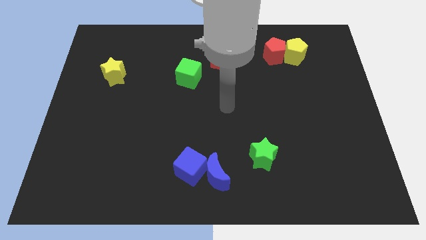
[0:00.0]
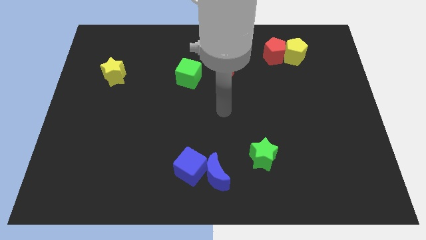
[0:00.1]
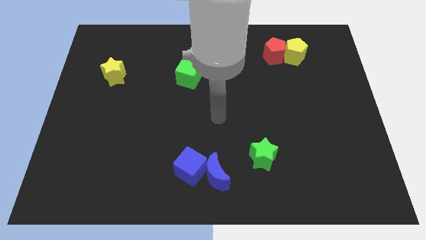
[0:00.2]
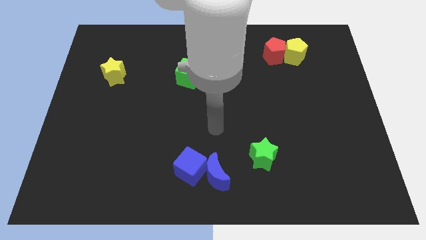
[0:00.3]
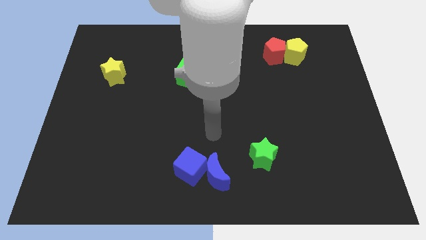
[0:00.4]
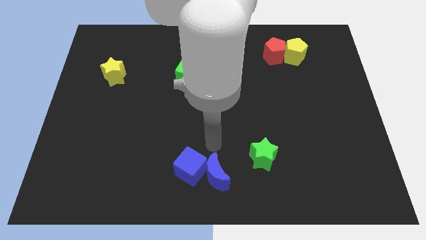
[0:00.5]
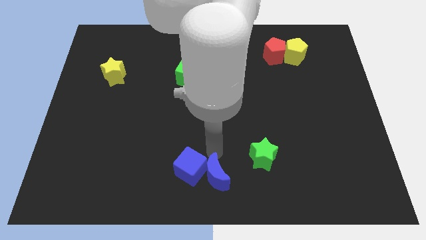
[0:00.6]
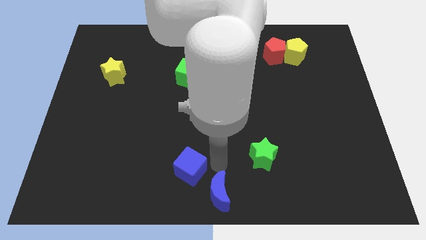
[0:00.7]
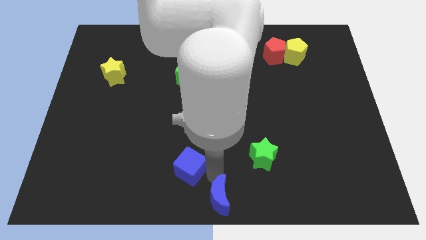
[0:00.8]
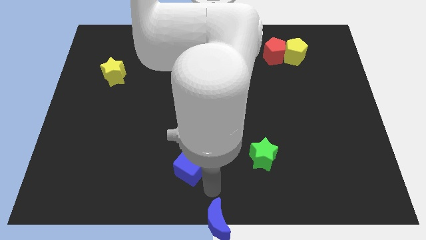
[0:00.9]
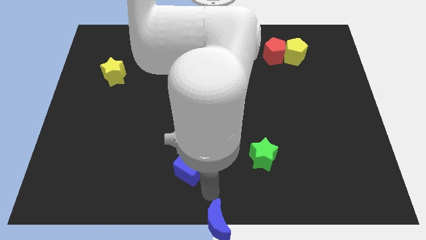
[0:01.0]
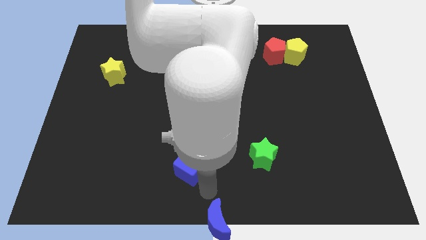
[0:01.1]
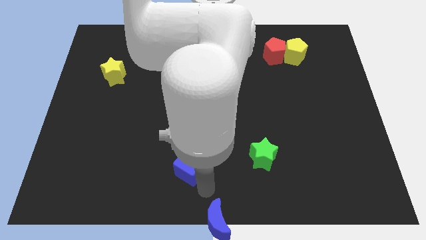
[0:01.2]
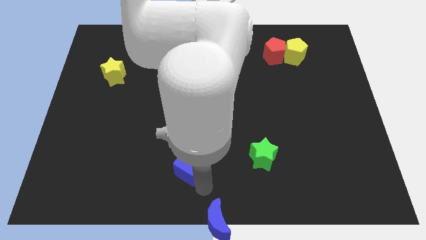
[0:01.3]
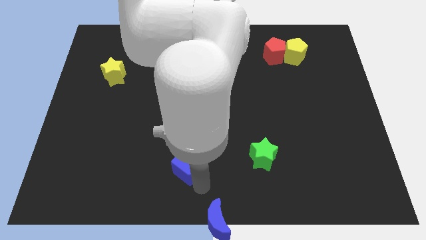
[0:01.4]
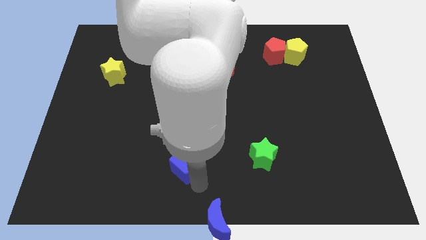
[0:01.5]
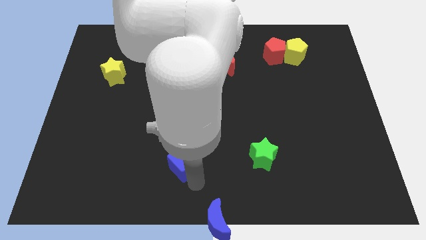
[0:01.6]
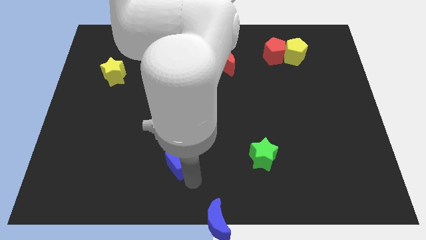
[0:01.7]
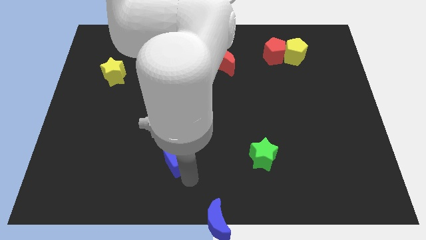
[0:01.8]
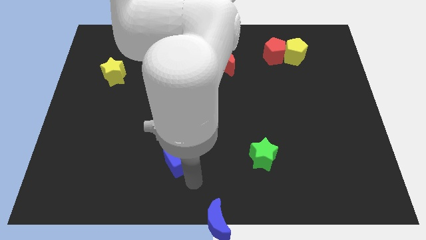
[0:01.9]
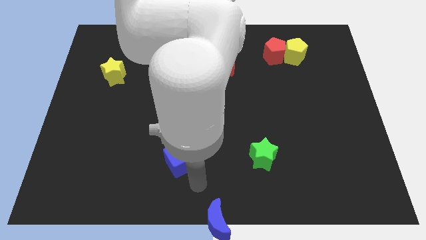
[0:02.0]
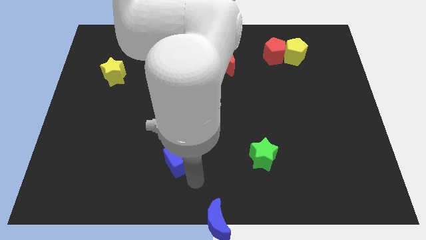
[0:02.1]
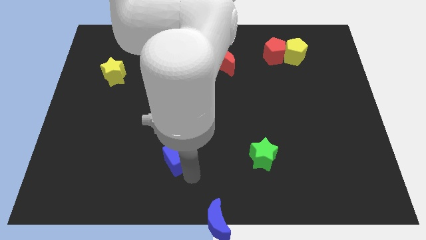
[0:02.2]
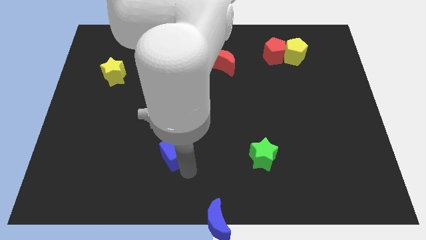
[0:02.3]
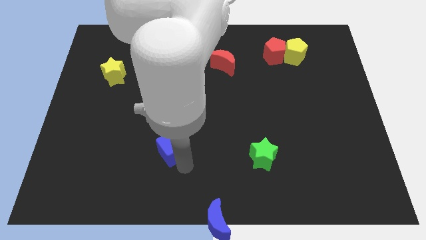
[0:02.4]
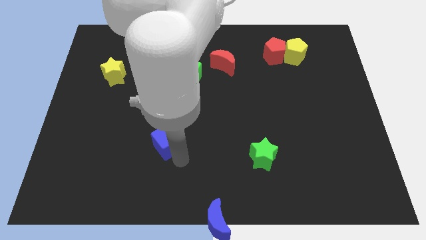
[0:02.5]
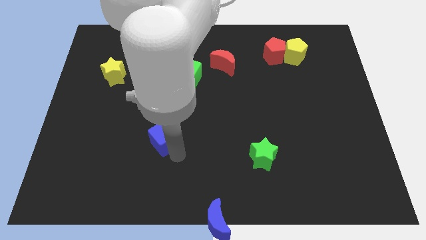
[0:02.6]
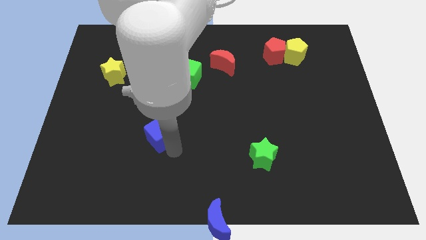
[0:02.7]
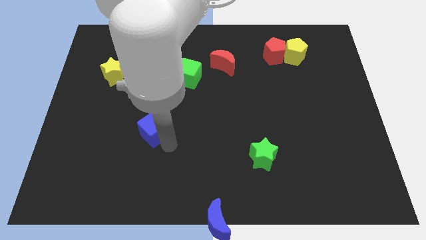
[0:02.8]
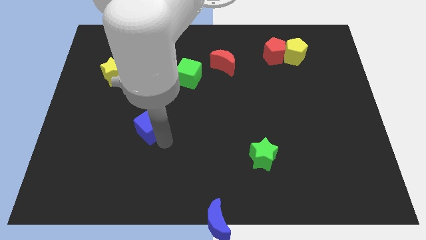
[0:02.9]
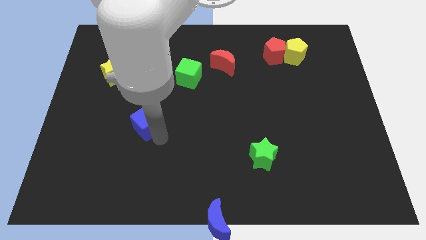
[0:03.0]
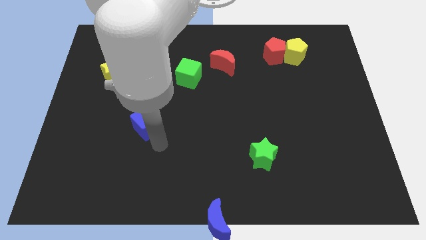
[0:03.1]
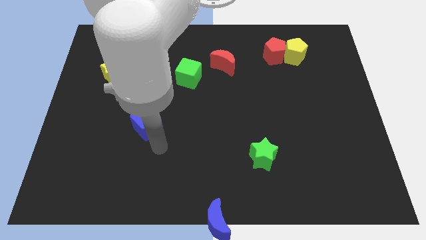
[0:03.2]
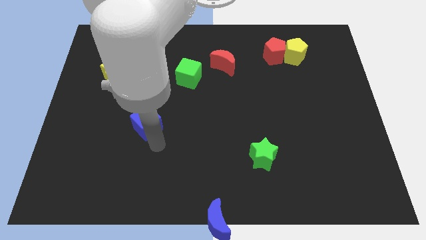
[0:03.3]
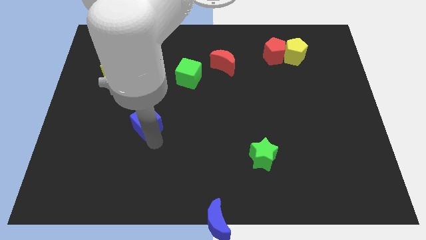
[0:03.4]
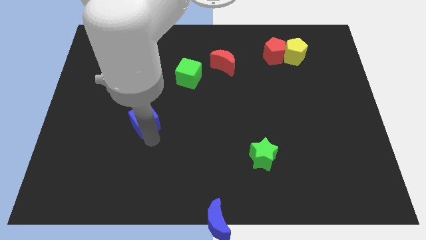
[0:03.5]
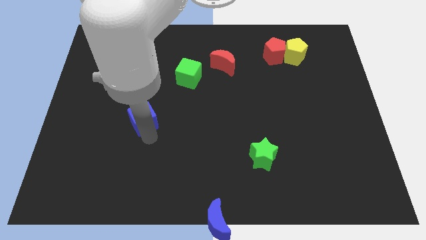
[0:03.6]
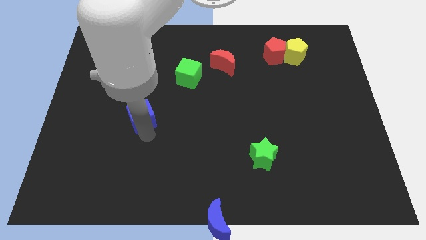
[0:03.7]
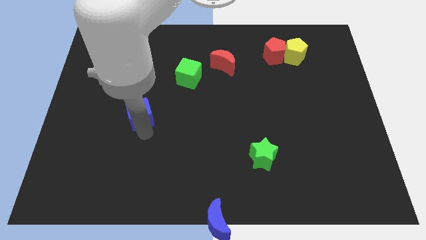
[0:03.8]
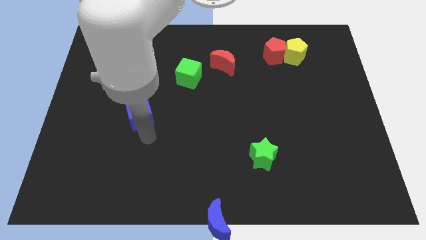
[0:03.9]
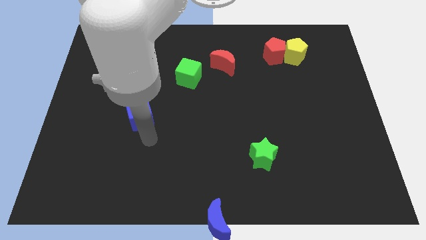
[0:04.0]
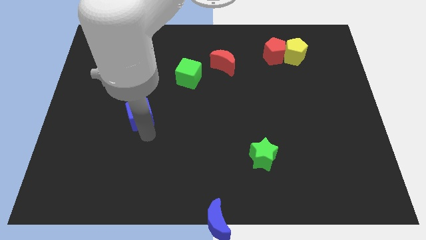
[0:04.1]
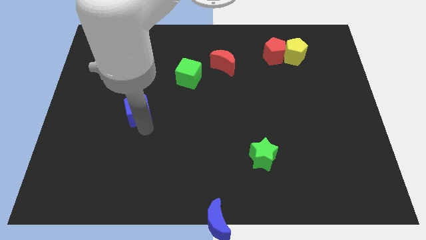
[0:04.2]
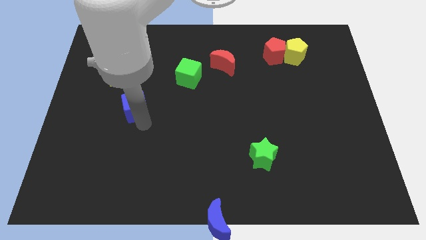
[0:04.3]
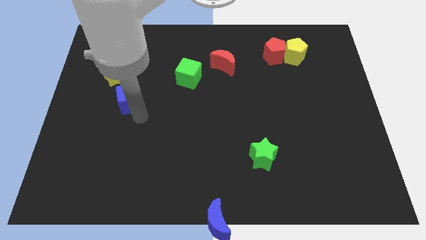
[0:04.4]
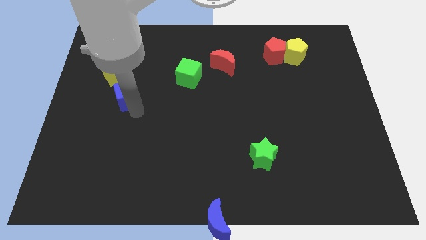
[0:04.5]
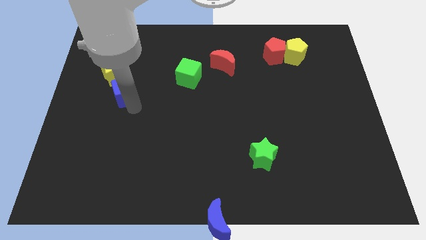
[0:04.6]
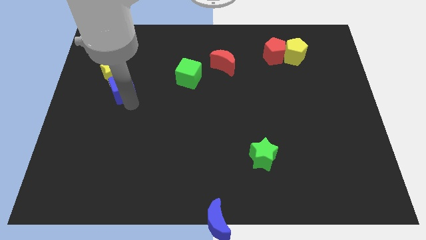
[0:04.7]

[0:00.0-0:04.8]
move the blue cube close to the yellow star

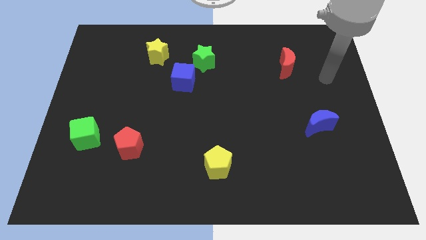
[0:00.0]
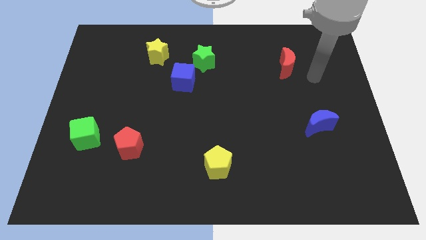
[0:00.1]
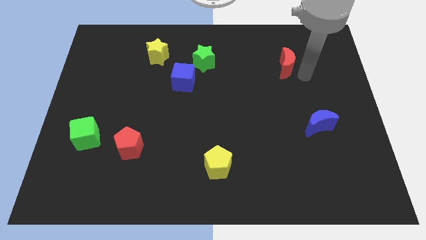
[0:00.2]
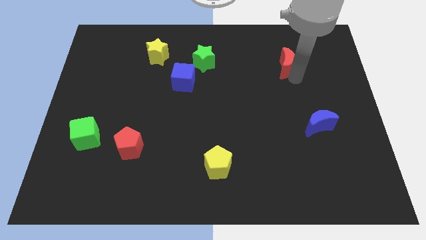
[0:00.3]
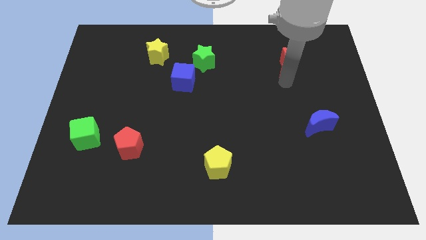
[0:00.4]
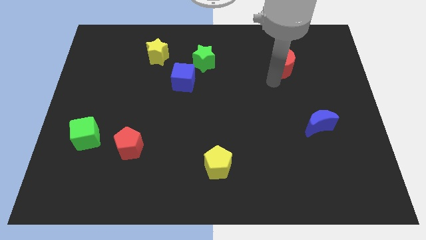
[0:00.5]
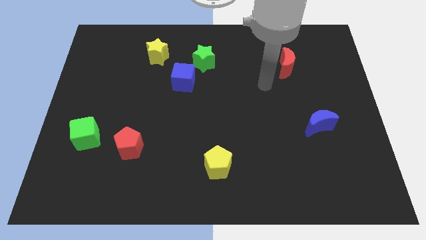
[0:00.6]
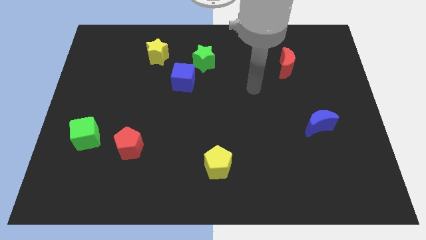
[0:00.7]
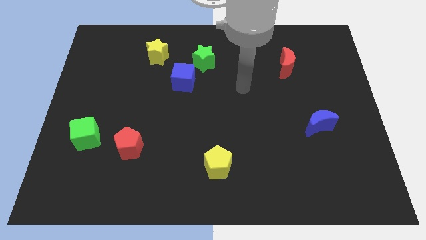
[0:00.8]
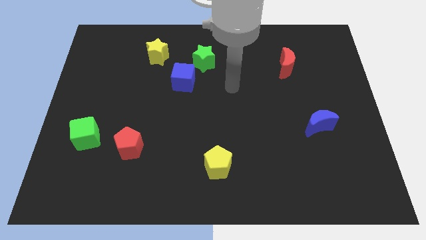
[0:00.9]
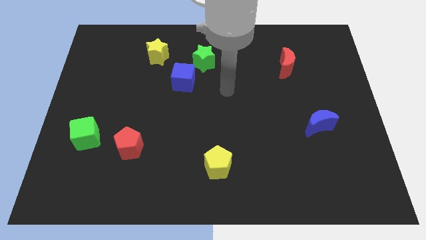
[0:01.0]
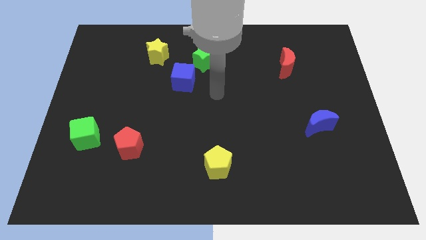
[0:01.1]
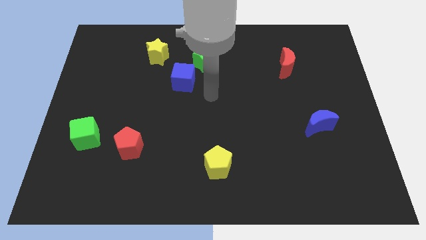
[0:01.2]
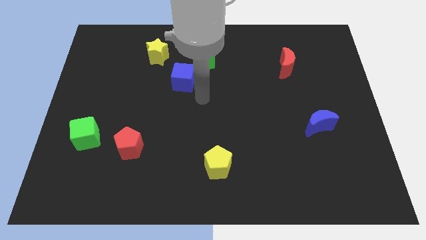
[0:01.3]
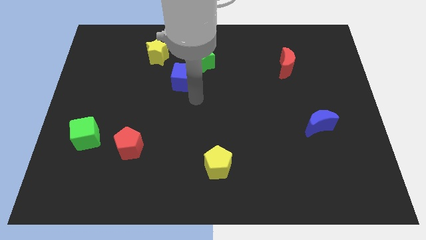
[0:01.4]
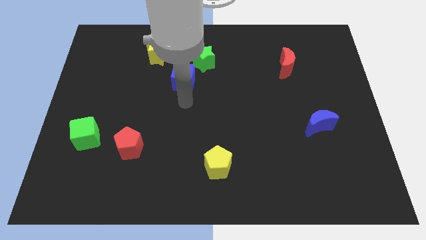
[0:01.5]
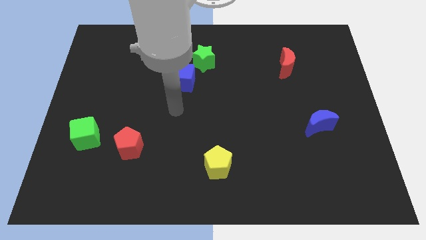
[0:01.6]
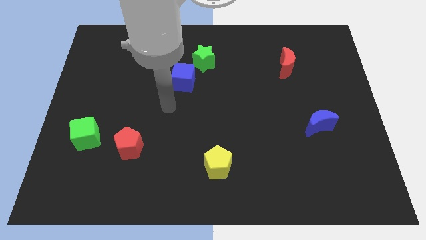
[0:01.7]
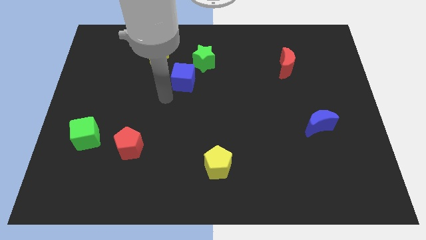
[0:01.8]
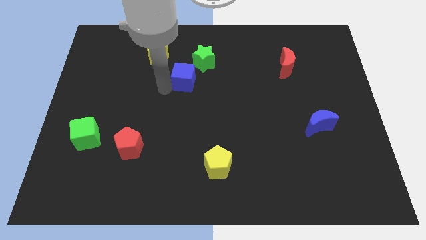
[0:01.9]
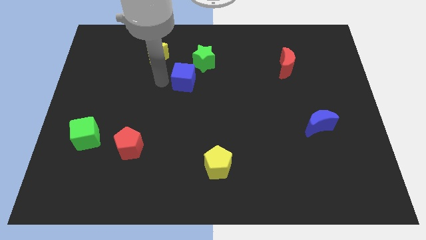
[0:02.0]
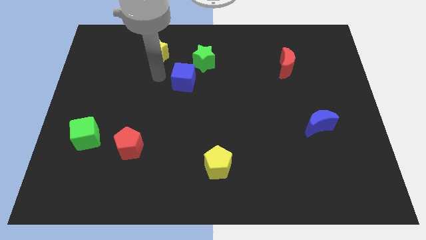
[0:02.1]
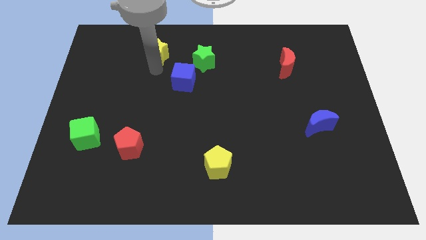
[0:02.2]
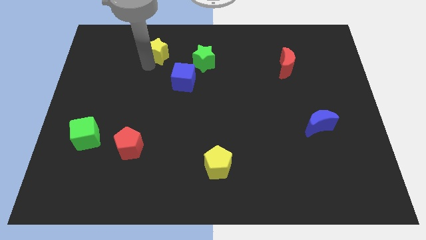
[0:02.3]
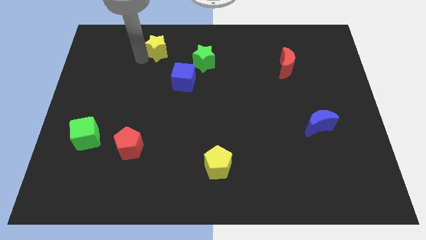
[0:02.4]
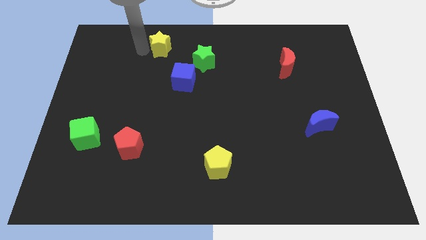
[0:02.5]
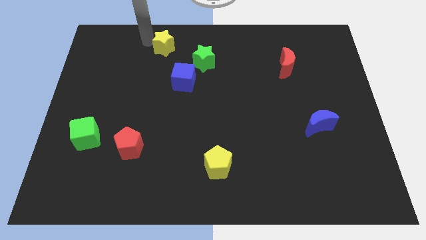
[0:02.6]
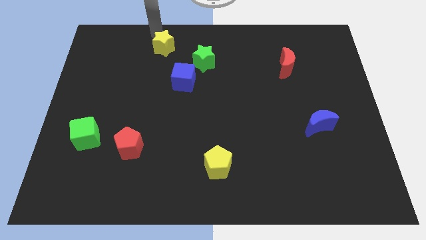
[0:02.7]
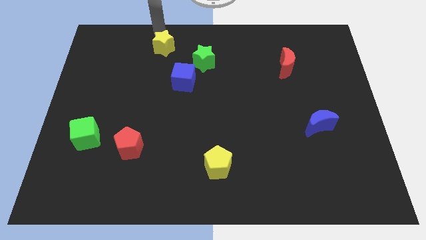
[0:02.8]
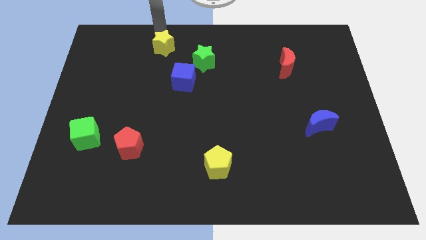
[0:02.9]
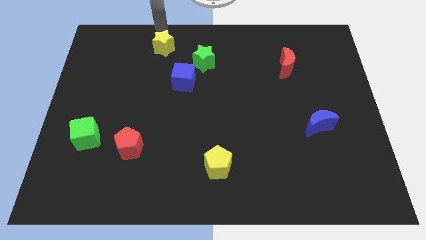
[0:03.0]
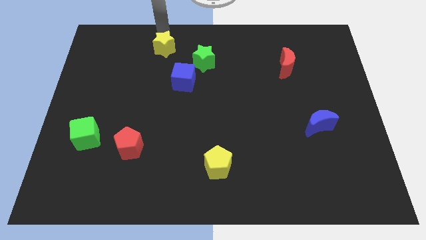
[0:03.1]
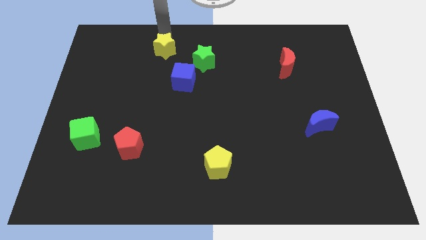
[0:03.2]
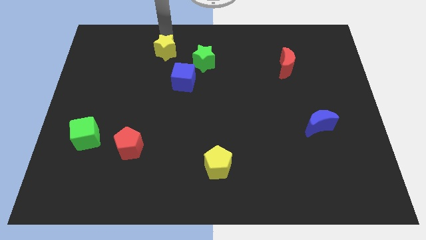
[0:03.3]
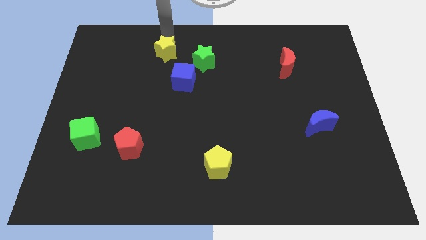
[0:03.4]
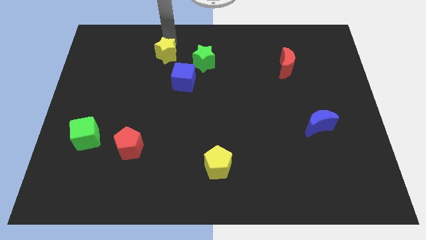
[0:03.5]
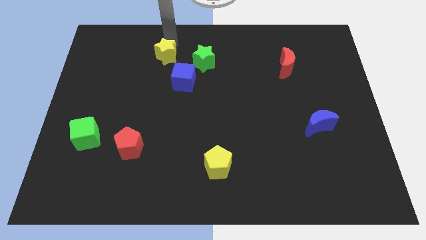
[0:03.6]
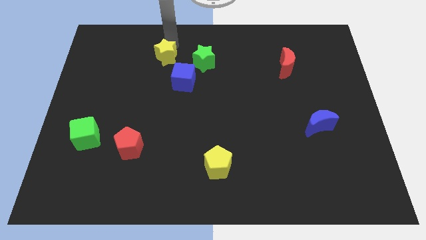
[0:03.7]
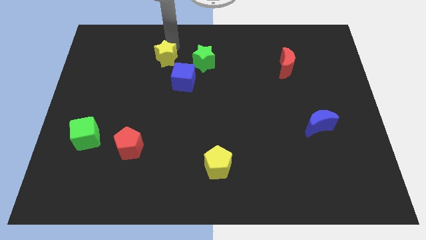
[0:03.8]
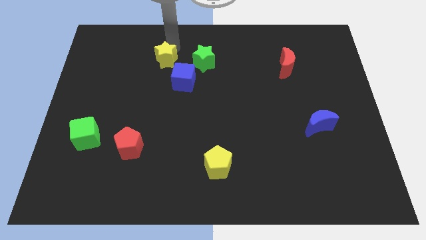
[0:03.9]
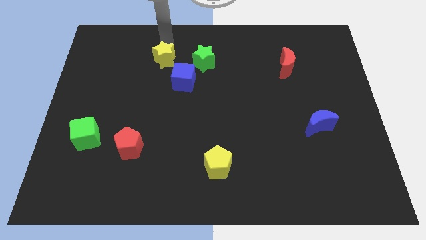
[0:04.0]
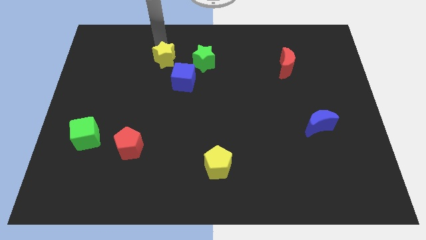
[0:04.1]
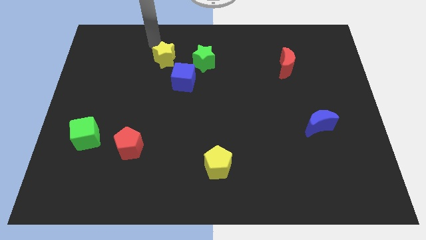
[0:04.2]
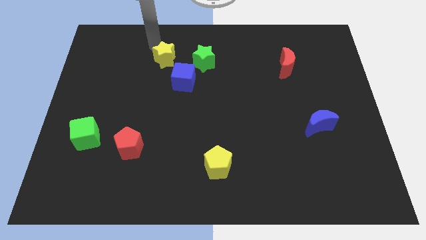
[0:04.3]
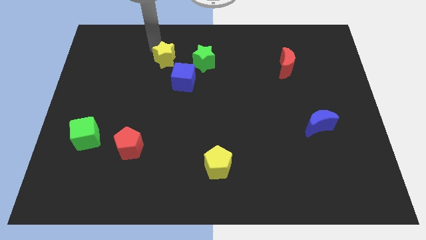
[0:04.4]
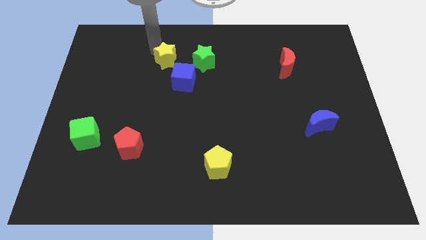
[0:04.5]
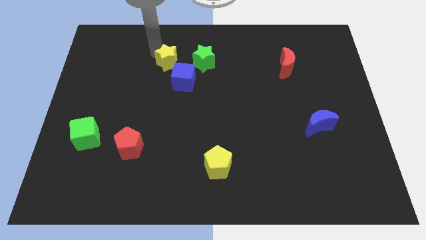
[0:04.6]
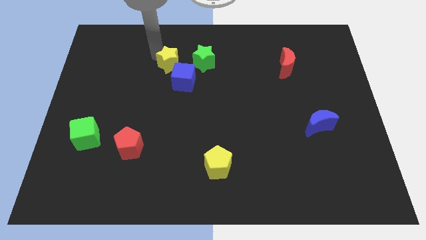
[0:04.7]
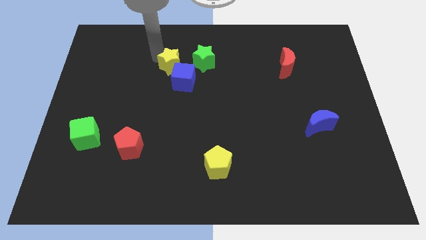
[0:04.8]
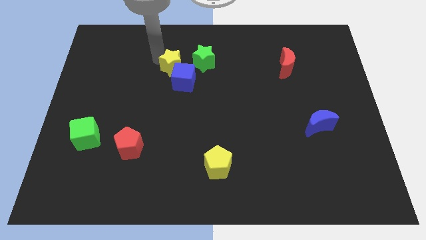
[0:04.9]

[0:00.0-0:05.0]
slide the yellow star close to the blue cube
